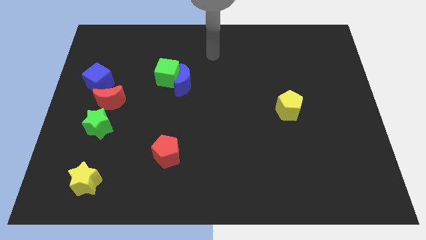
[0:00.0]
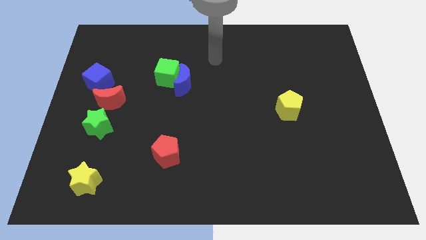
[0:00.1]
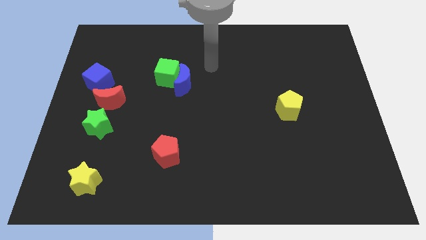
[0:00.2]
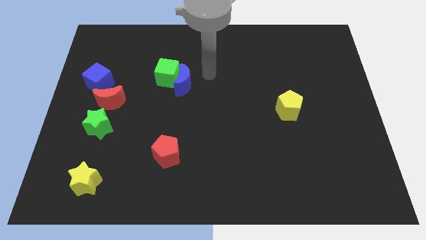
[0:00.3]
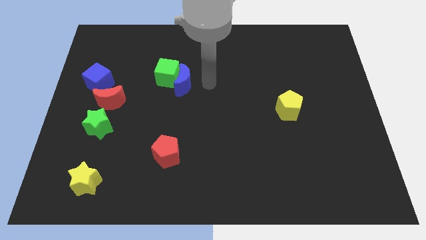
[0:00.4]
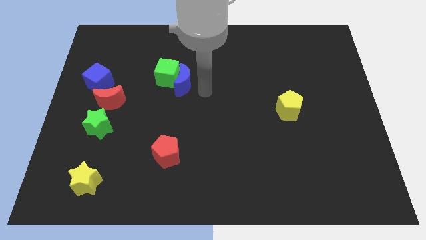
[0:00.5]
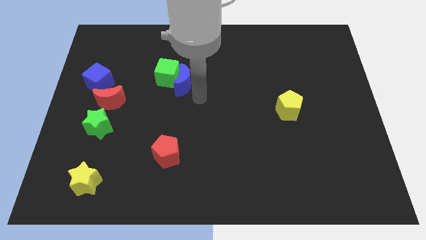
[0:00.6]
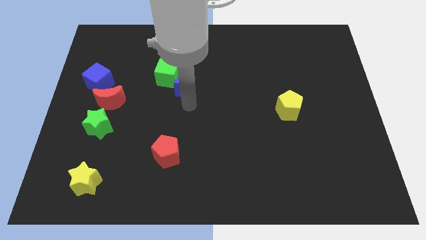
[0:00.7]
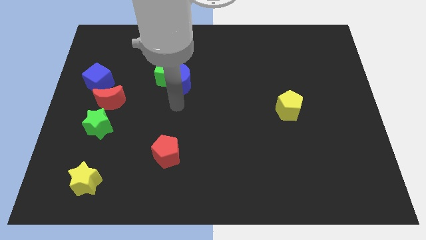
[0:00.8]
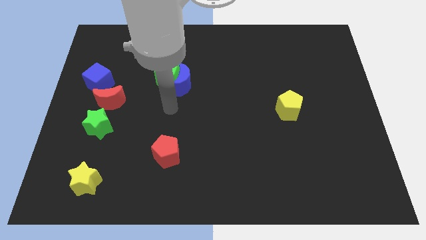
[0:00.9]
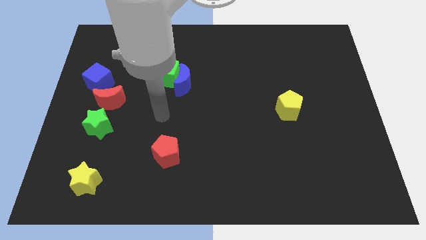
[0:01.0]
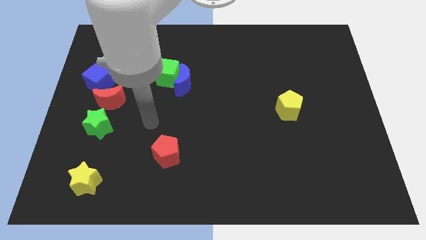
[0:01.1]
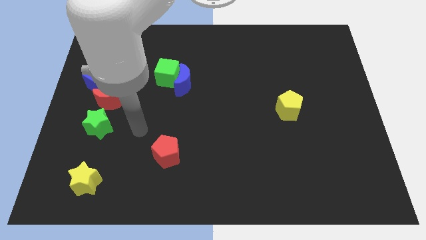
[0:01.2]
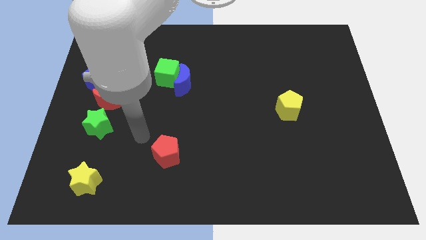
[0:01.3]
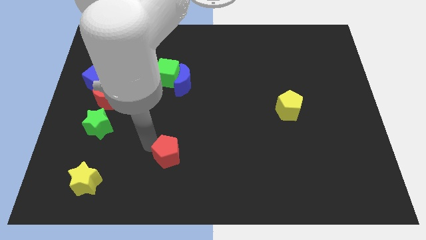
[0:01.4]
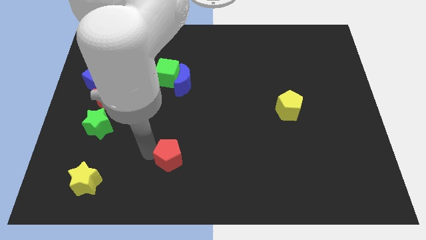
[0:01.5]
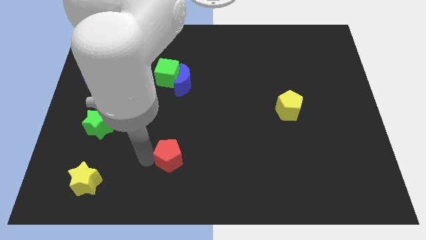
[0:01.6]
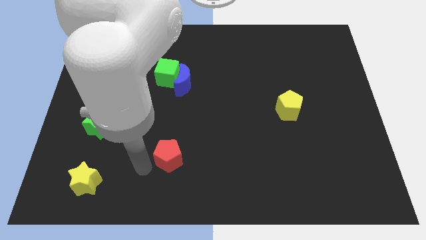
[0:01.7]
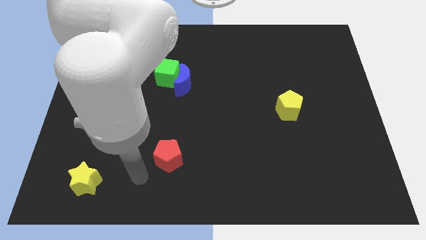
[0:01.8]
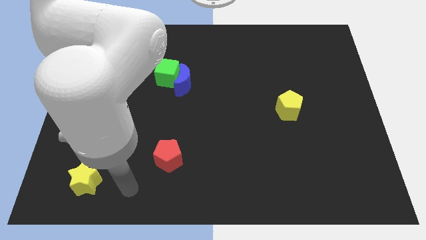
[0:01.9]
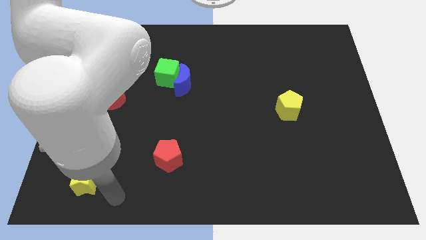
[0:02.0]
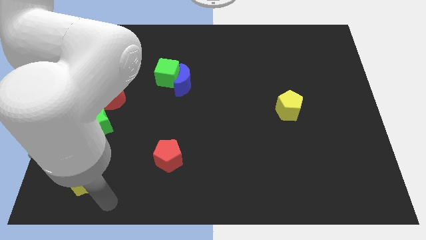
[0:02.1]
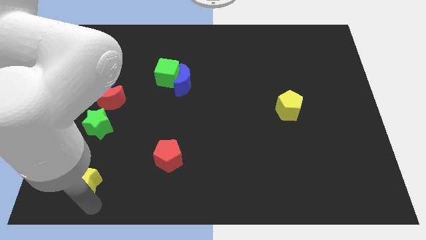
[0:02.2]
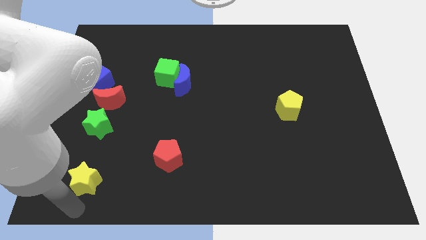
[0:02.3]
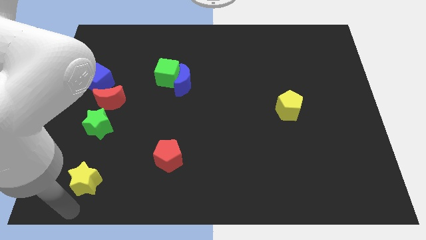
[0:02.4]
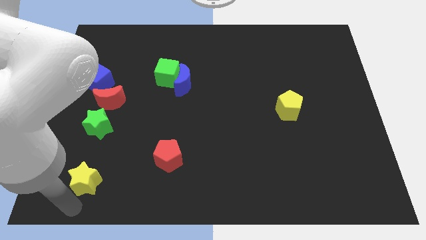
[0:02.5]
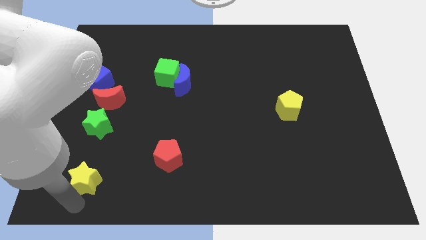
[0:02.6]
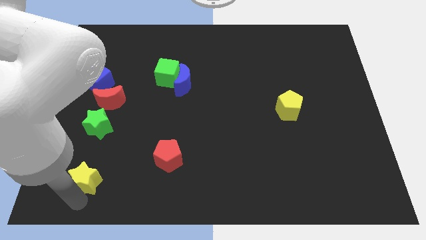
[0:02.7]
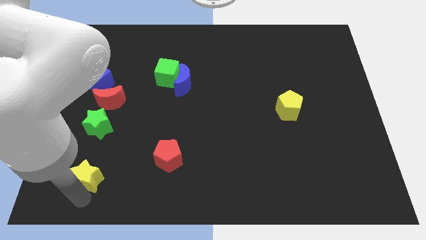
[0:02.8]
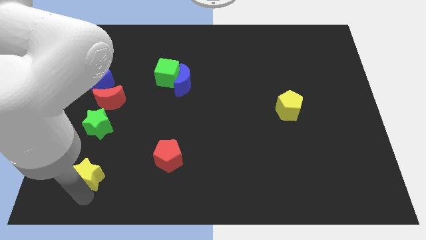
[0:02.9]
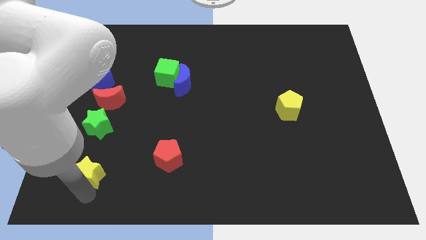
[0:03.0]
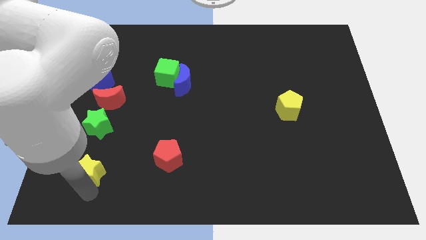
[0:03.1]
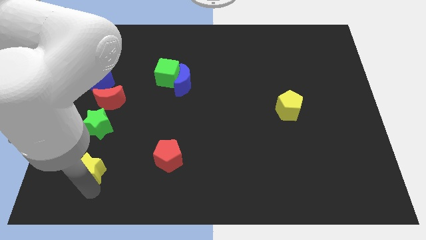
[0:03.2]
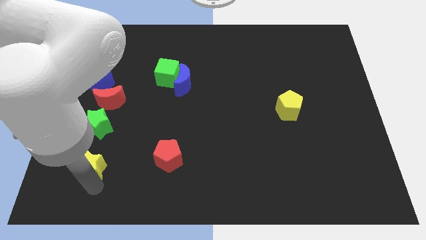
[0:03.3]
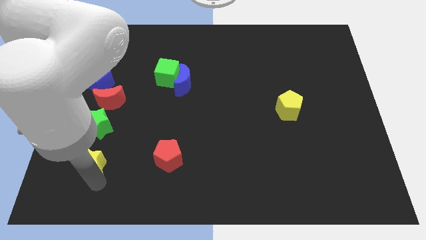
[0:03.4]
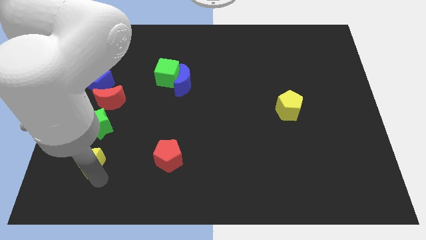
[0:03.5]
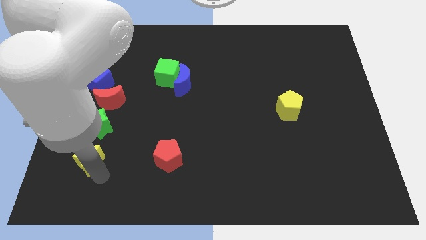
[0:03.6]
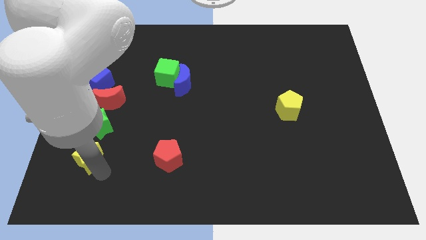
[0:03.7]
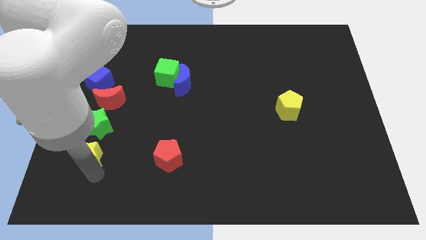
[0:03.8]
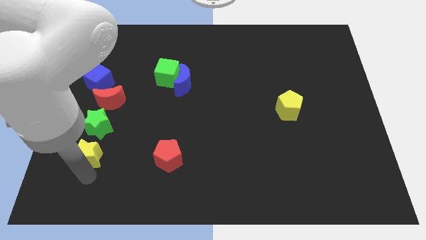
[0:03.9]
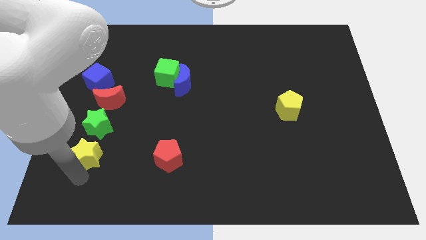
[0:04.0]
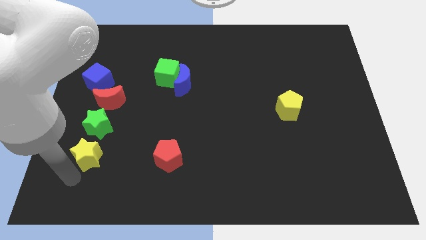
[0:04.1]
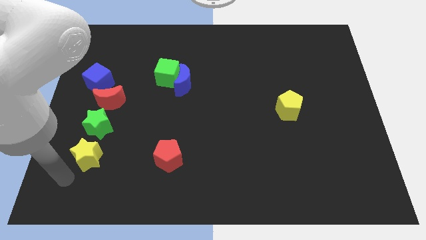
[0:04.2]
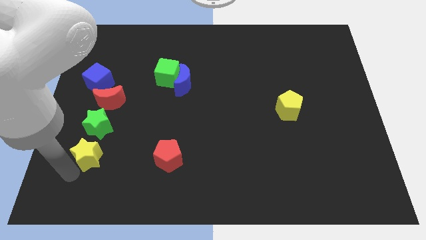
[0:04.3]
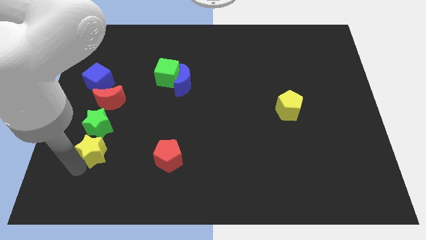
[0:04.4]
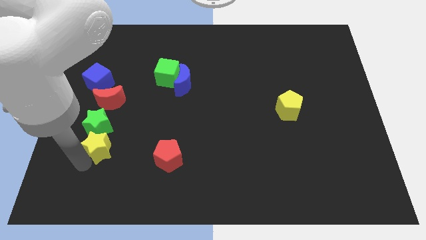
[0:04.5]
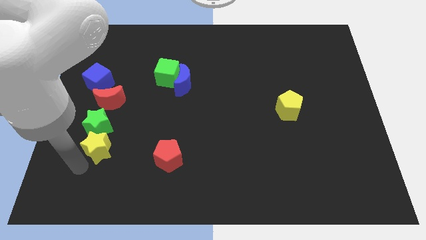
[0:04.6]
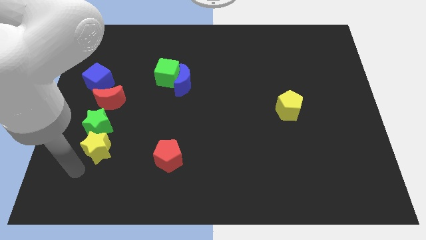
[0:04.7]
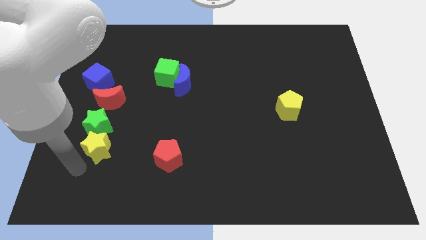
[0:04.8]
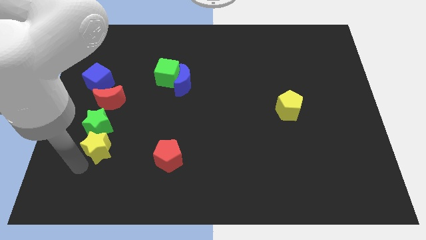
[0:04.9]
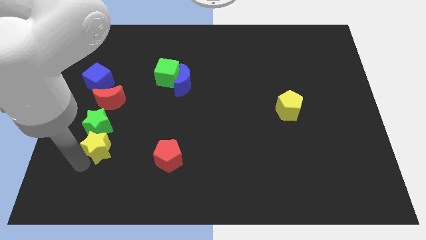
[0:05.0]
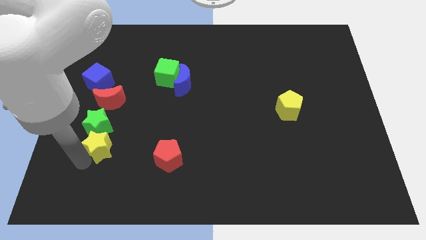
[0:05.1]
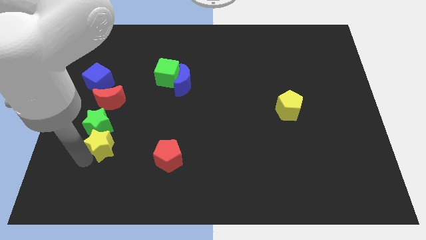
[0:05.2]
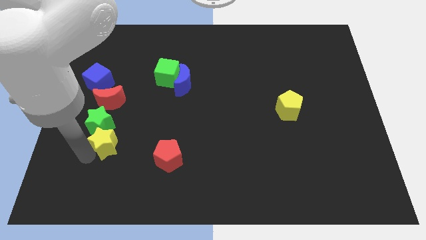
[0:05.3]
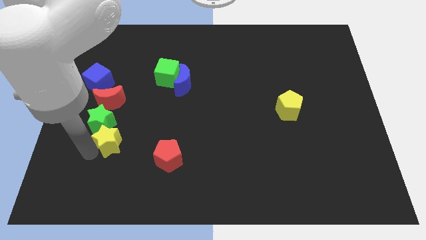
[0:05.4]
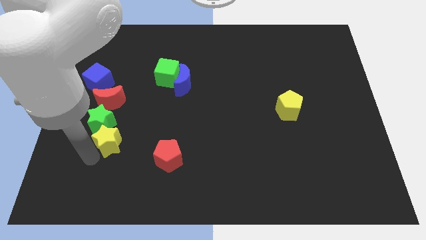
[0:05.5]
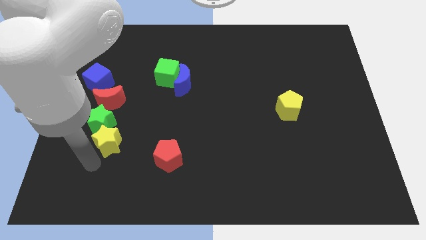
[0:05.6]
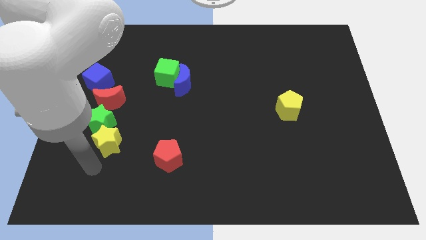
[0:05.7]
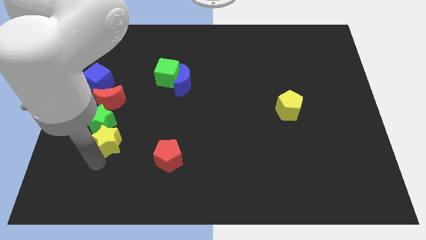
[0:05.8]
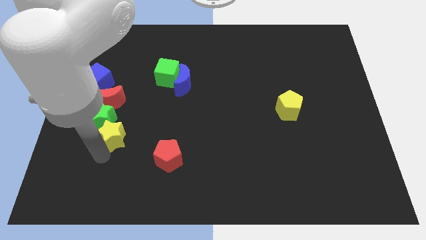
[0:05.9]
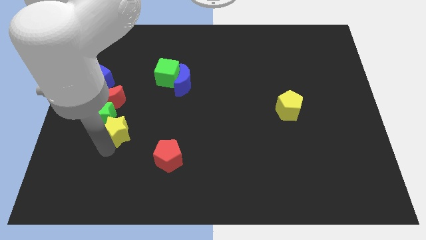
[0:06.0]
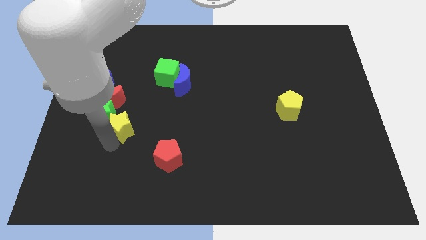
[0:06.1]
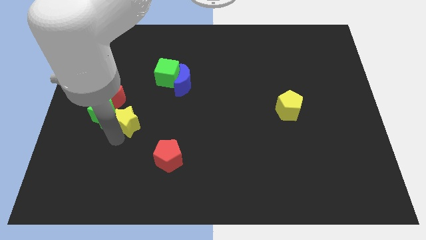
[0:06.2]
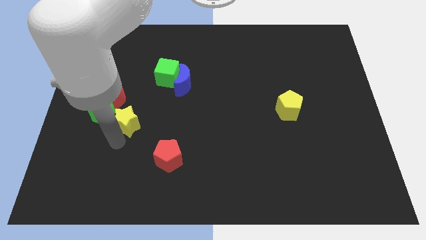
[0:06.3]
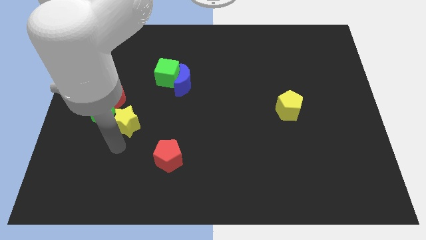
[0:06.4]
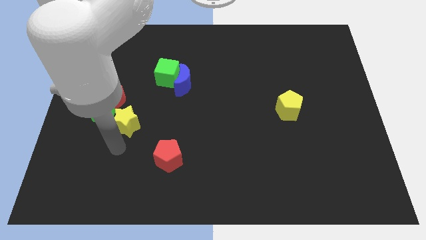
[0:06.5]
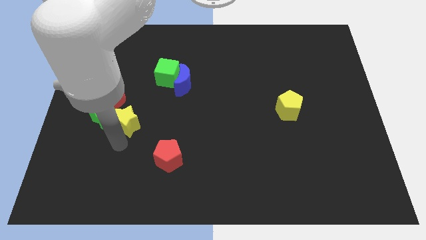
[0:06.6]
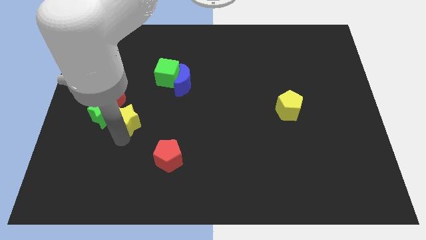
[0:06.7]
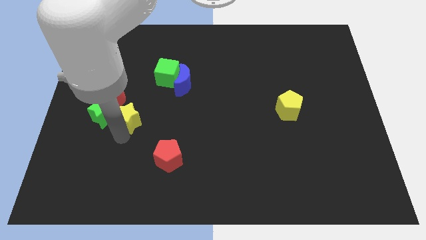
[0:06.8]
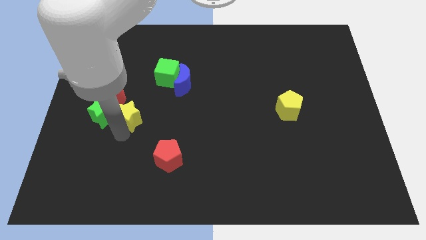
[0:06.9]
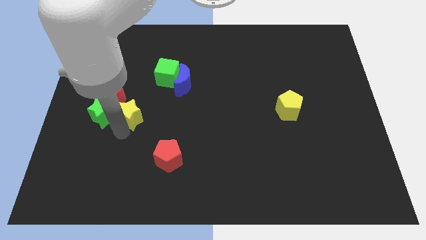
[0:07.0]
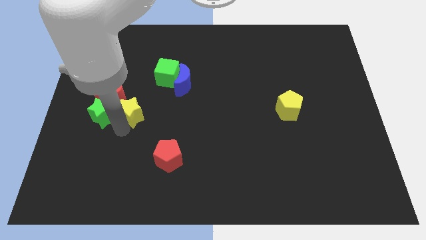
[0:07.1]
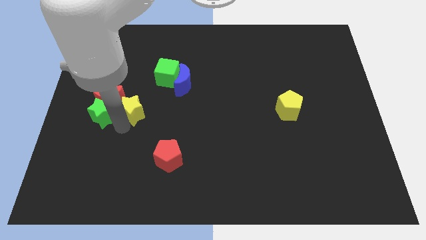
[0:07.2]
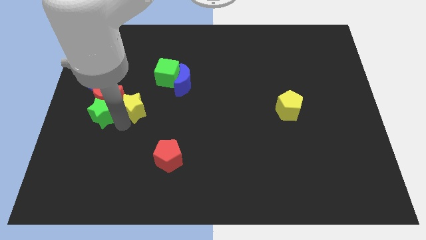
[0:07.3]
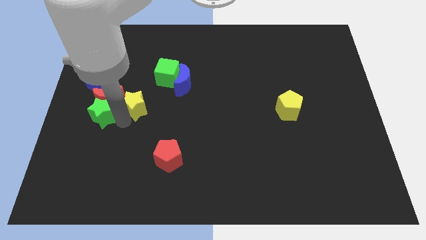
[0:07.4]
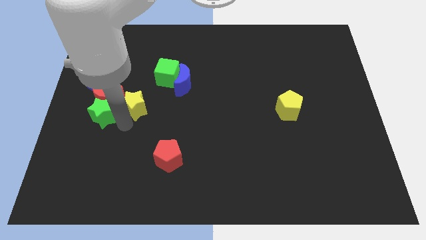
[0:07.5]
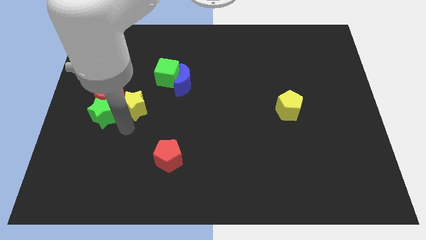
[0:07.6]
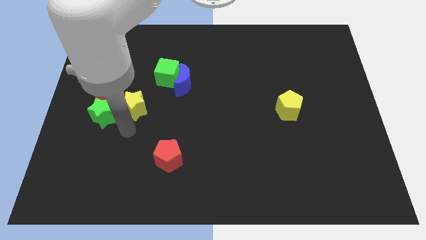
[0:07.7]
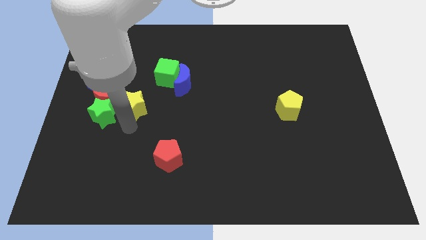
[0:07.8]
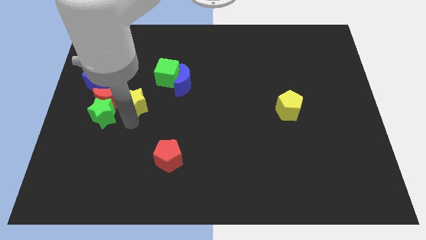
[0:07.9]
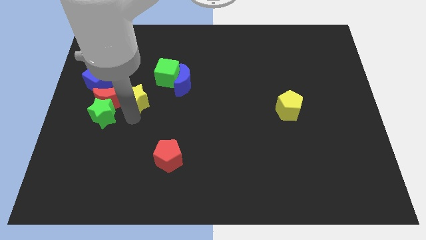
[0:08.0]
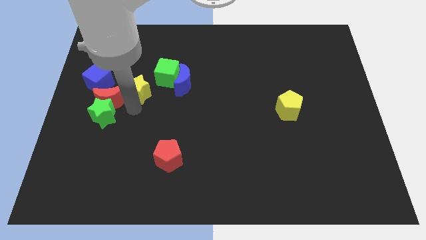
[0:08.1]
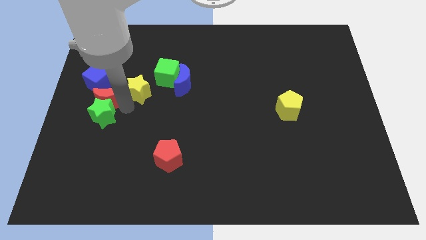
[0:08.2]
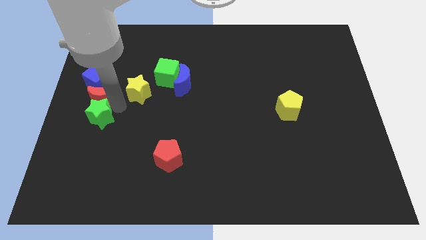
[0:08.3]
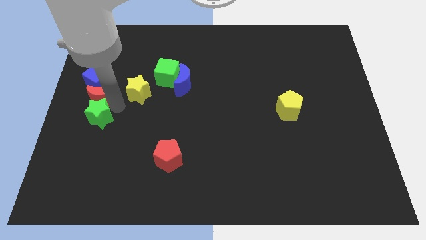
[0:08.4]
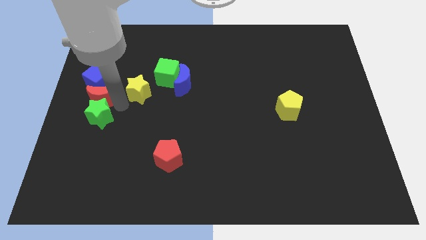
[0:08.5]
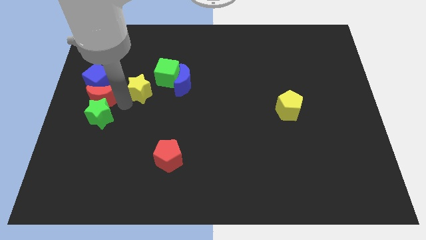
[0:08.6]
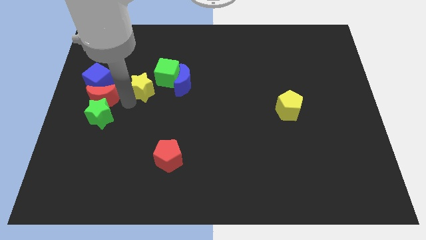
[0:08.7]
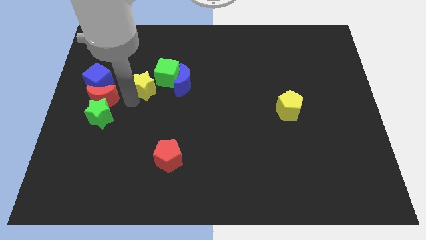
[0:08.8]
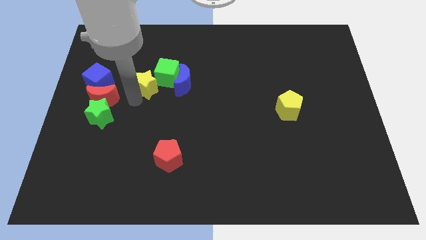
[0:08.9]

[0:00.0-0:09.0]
push the yellow star close to the green cube
